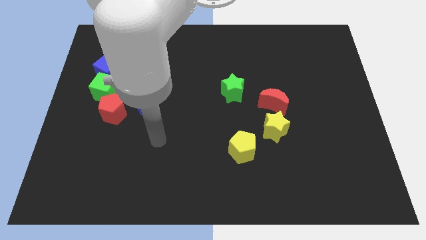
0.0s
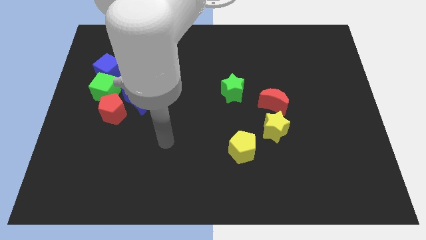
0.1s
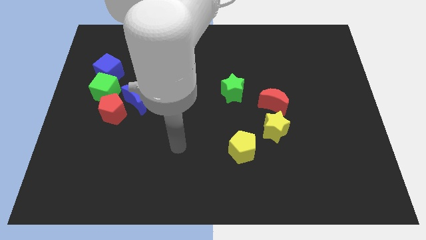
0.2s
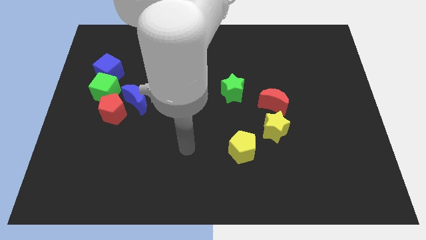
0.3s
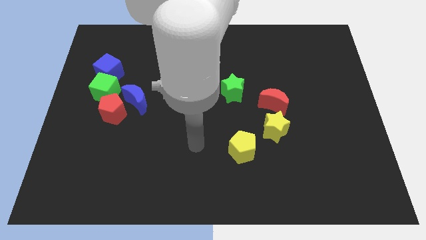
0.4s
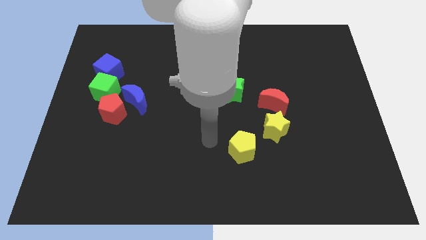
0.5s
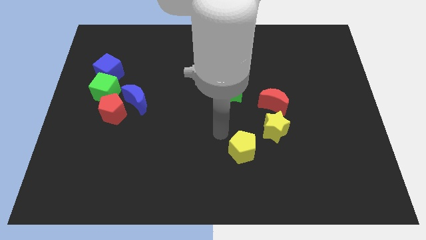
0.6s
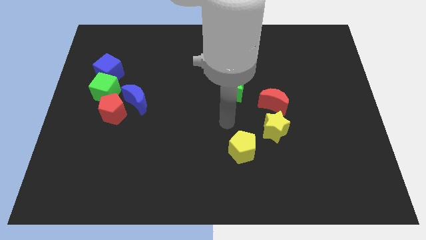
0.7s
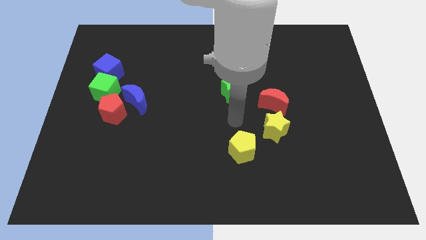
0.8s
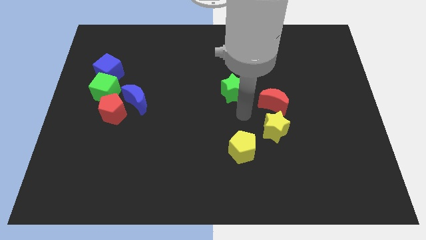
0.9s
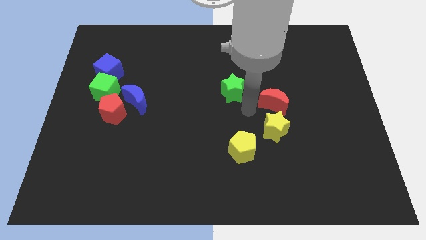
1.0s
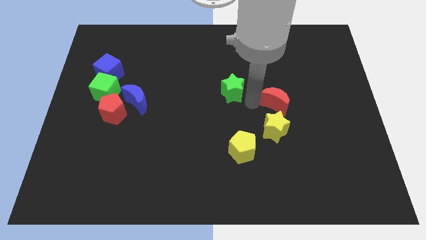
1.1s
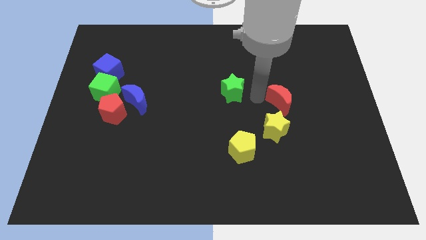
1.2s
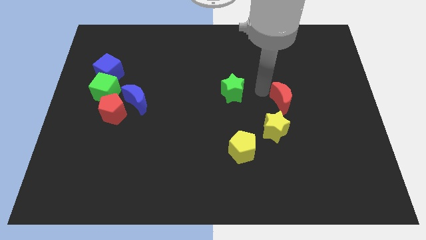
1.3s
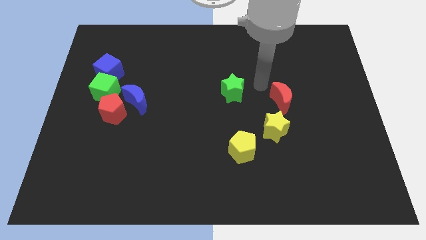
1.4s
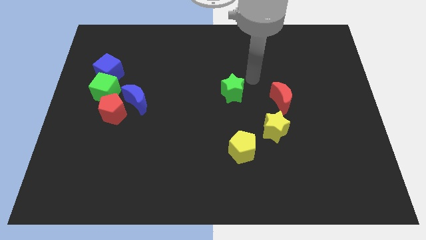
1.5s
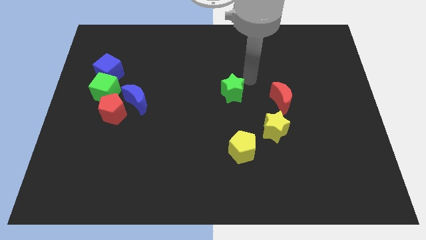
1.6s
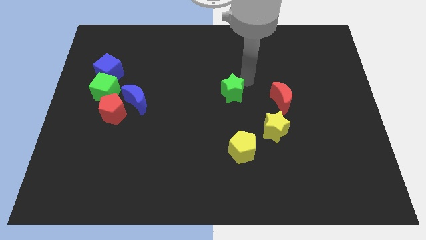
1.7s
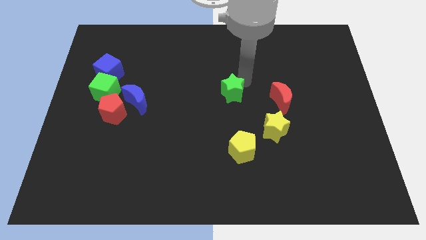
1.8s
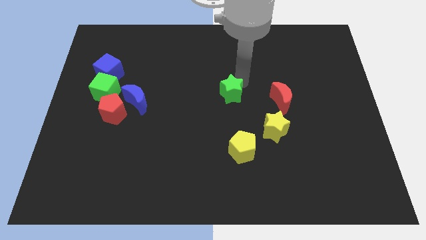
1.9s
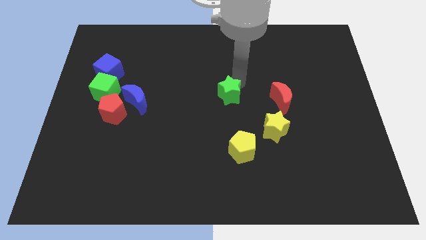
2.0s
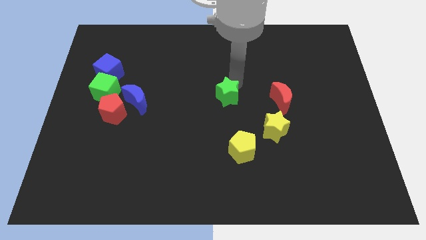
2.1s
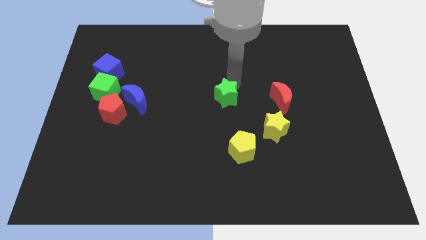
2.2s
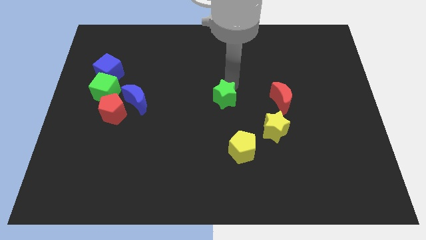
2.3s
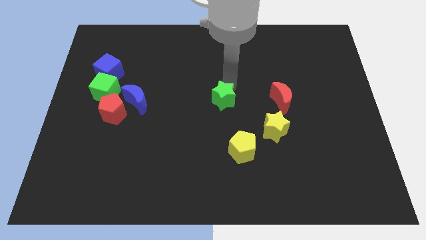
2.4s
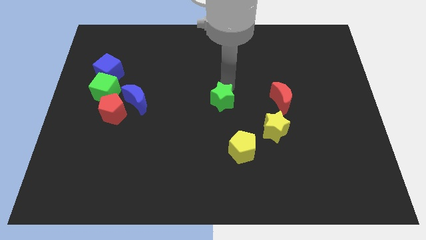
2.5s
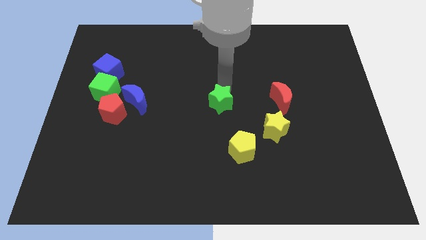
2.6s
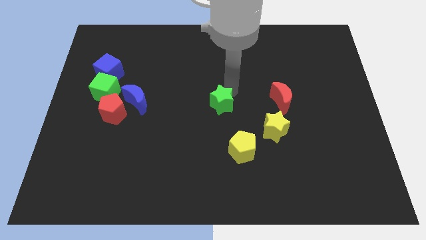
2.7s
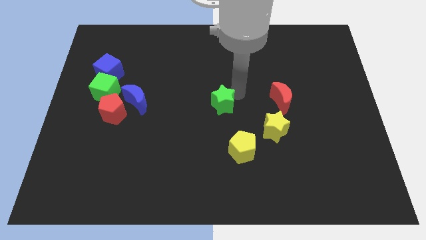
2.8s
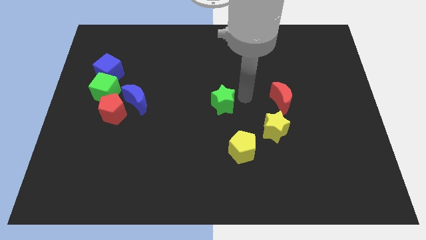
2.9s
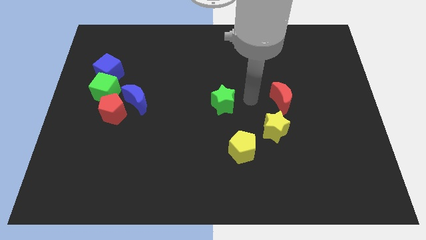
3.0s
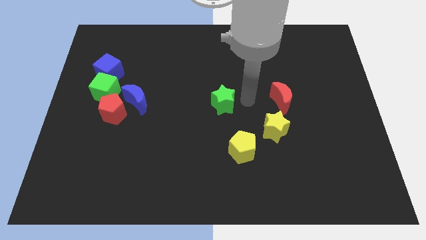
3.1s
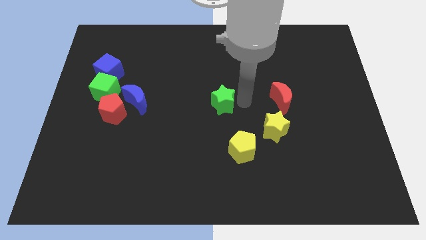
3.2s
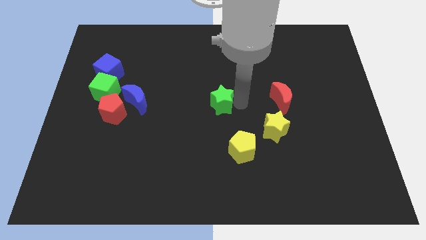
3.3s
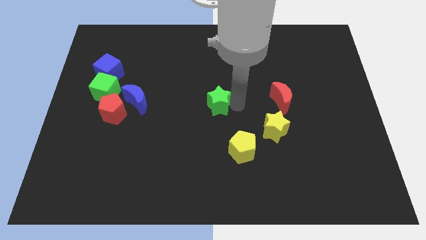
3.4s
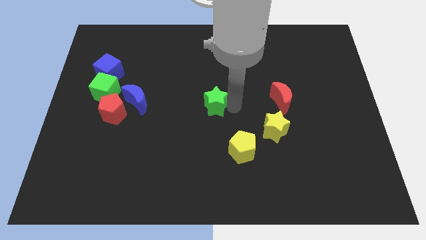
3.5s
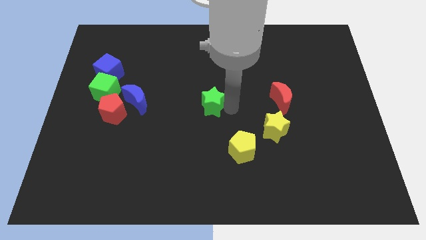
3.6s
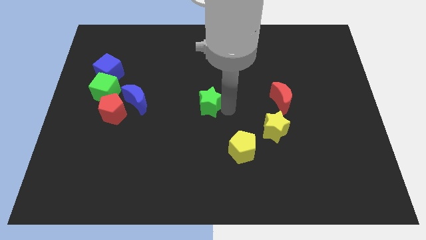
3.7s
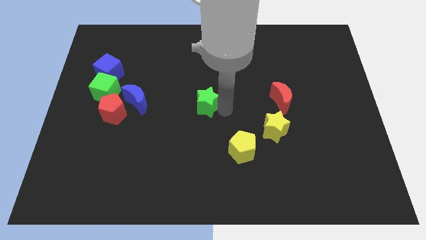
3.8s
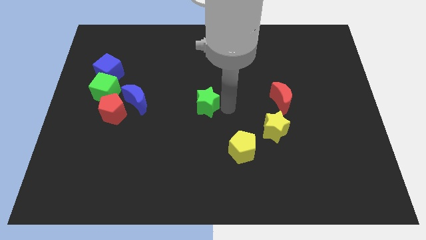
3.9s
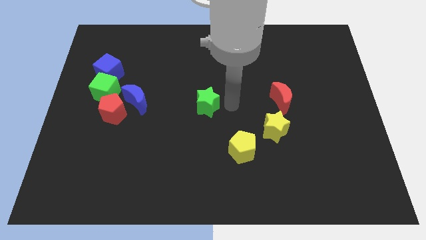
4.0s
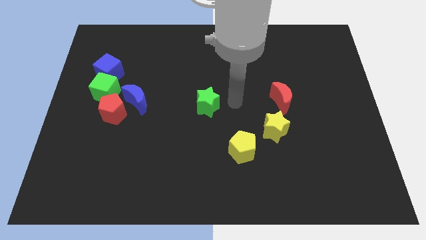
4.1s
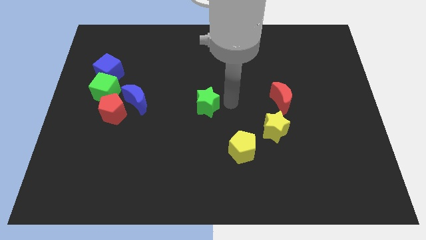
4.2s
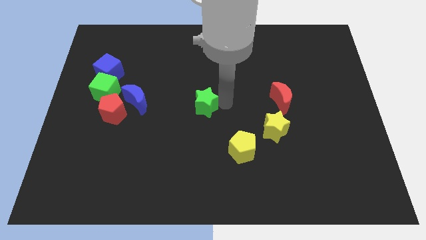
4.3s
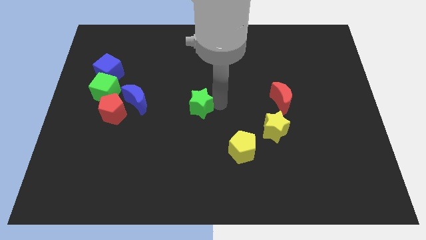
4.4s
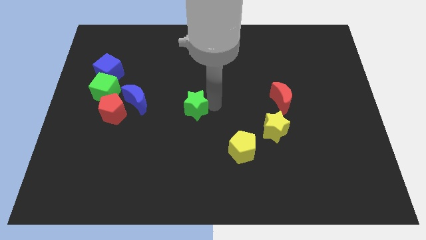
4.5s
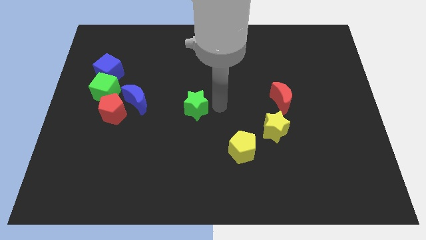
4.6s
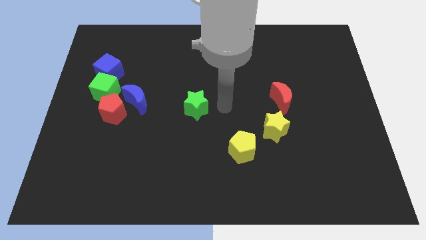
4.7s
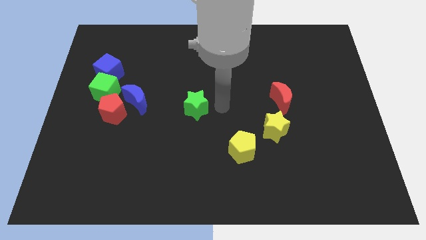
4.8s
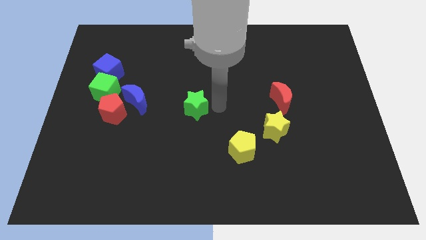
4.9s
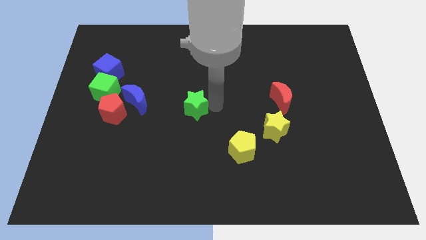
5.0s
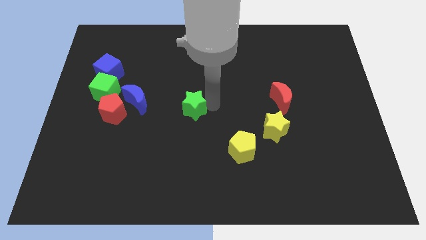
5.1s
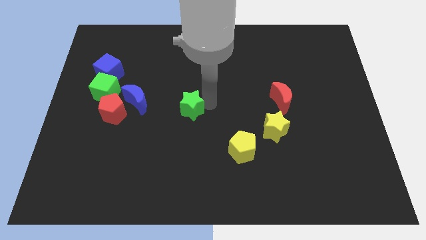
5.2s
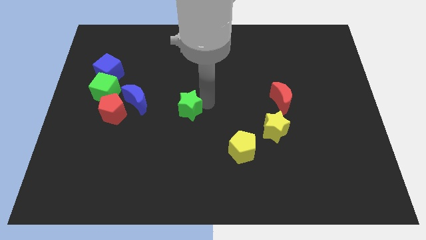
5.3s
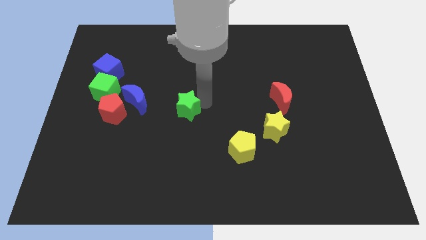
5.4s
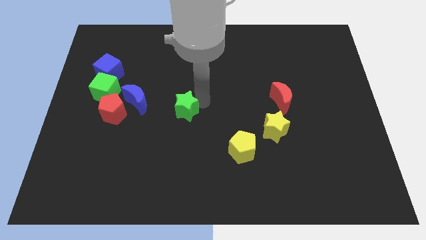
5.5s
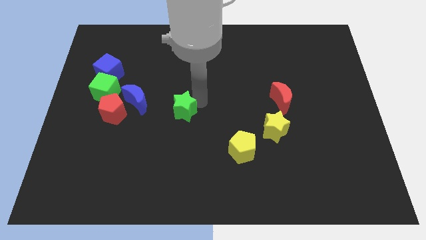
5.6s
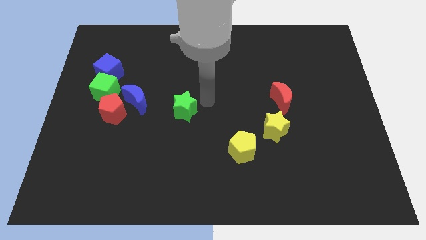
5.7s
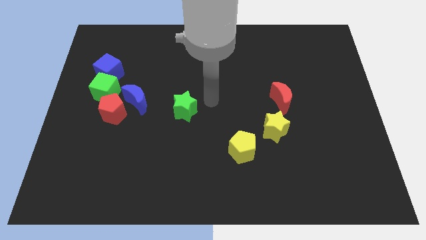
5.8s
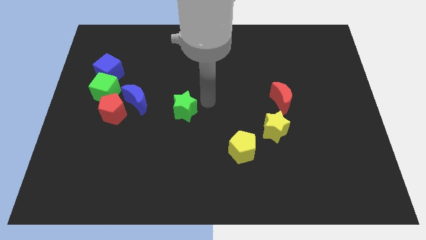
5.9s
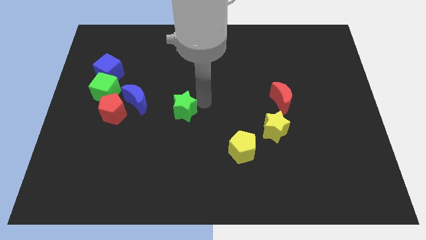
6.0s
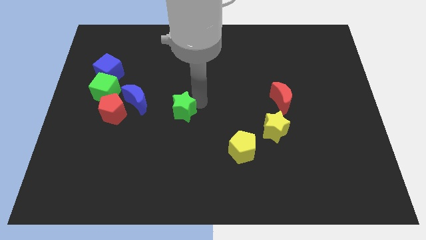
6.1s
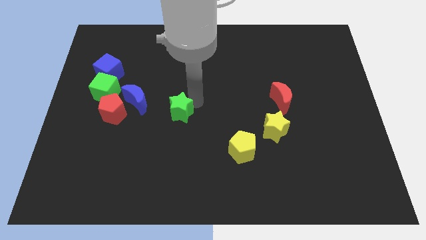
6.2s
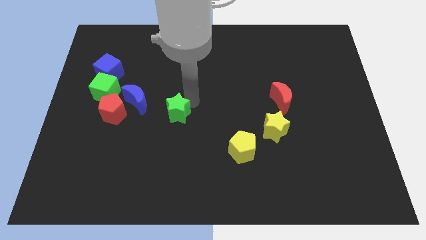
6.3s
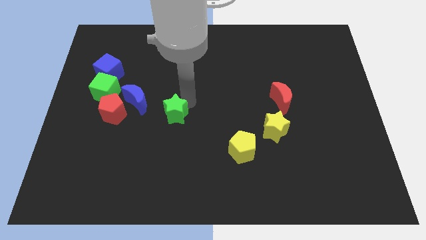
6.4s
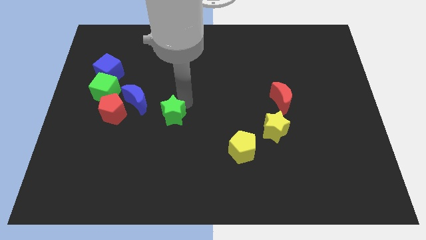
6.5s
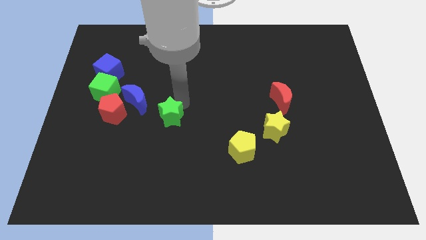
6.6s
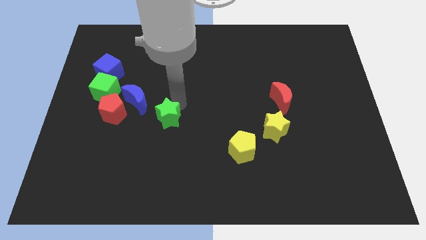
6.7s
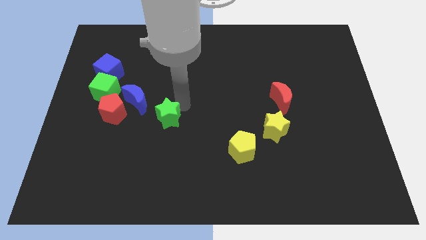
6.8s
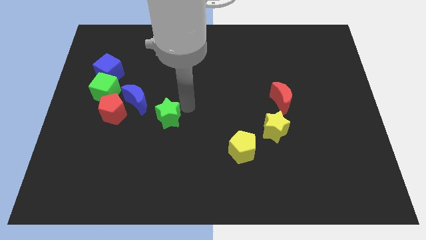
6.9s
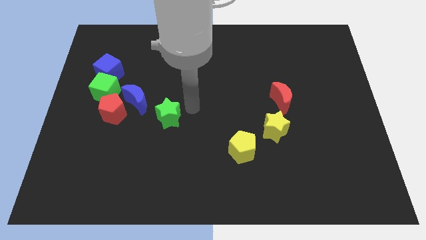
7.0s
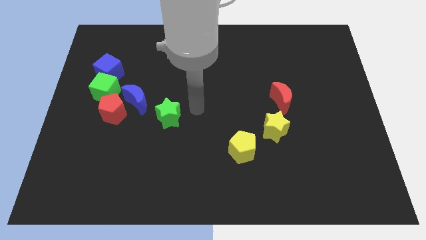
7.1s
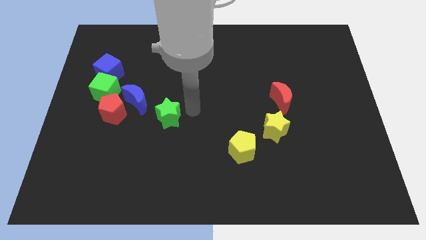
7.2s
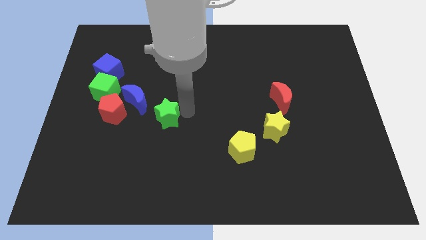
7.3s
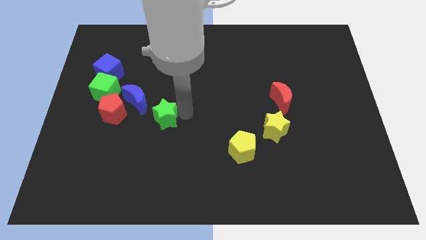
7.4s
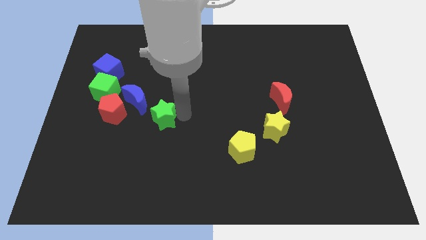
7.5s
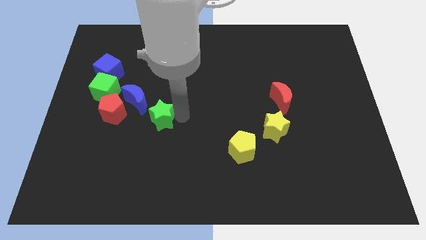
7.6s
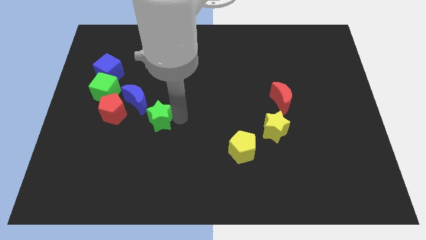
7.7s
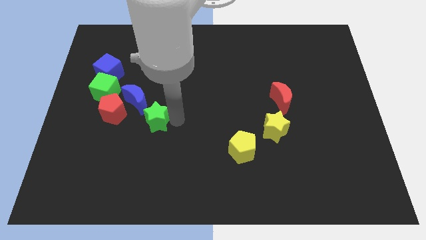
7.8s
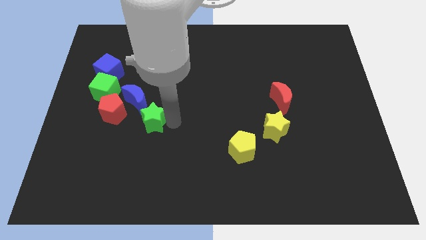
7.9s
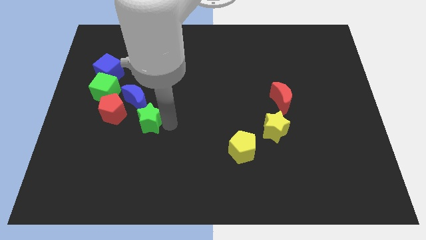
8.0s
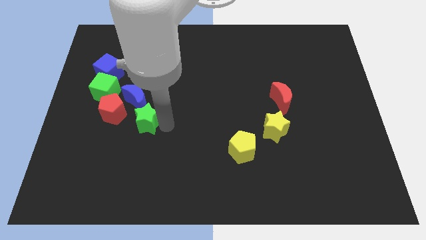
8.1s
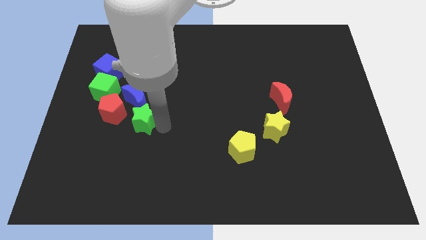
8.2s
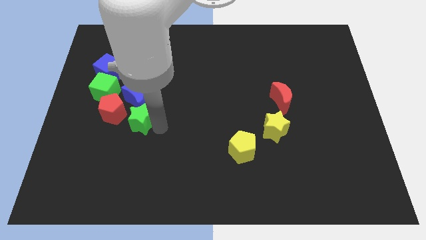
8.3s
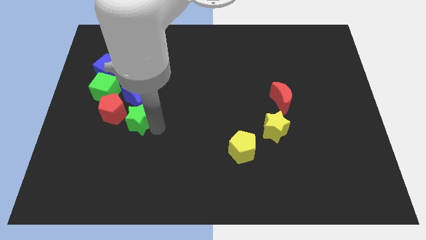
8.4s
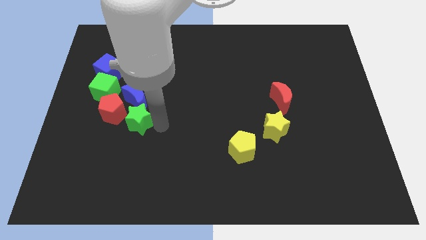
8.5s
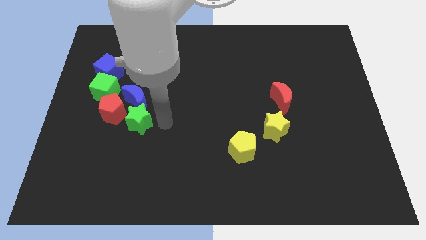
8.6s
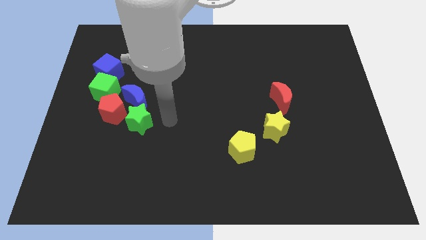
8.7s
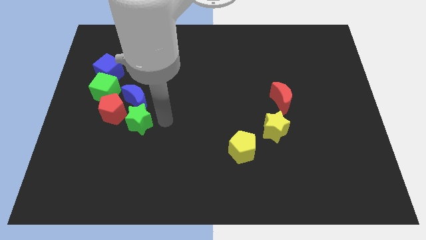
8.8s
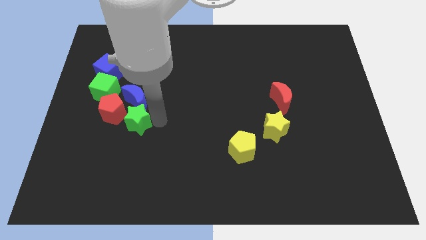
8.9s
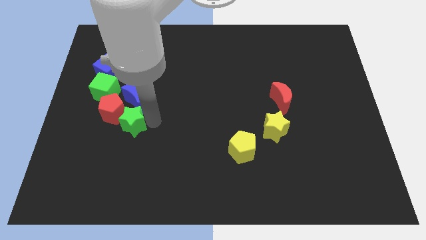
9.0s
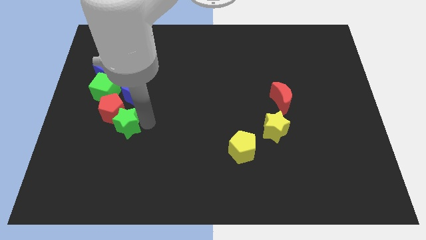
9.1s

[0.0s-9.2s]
put the green star next to the red pentagon
